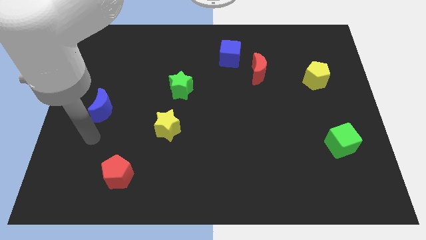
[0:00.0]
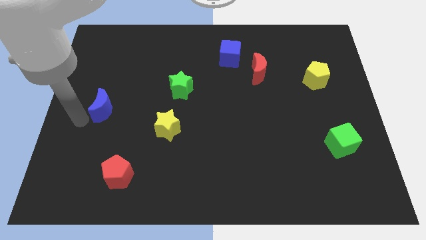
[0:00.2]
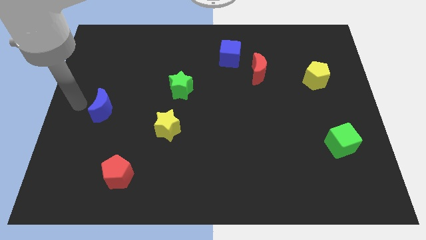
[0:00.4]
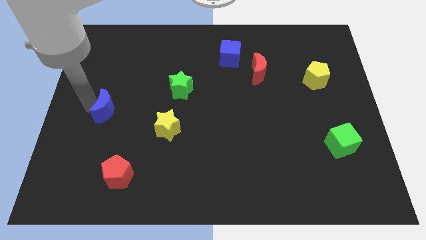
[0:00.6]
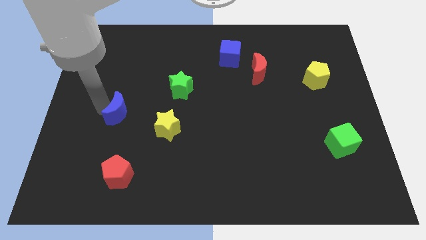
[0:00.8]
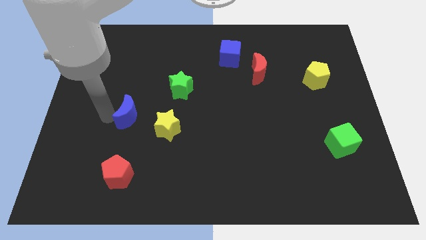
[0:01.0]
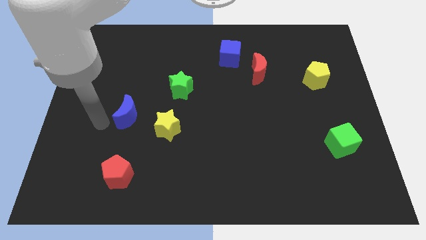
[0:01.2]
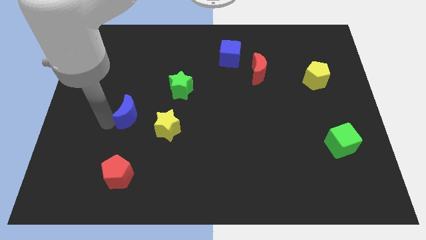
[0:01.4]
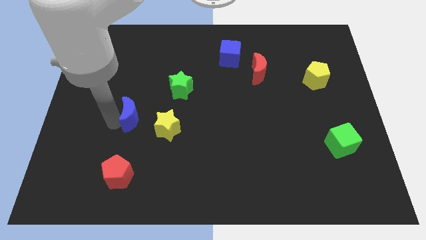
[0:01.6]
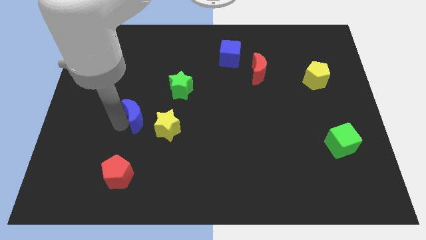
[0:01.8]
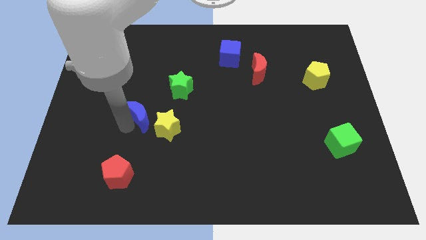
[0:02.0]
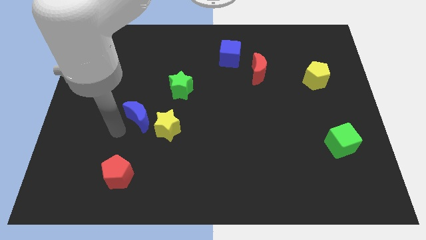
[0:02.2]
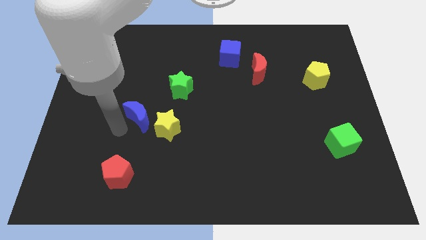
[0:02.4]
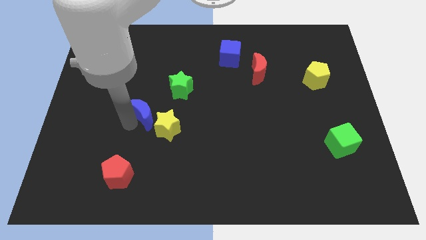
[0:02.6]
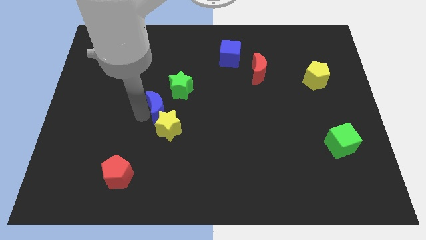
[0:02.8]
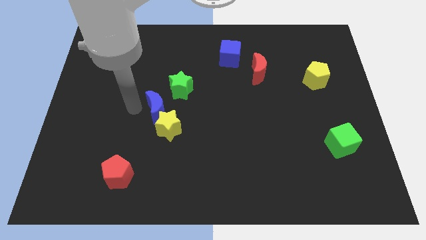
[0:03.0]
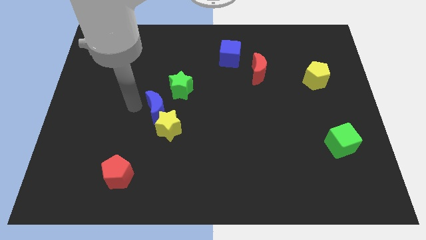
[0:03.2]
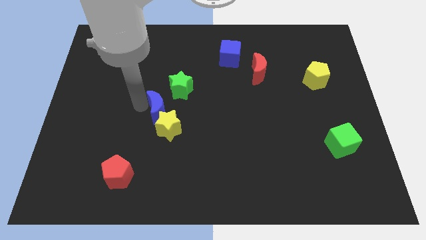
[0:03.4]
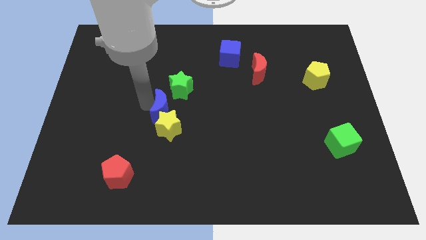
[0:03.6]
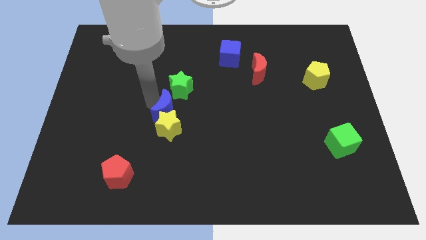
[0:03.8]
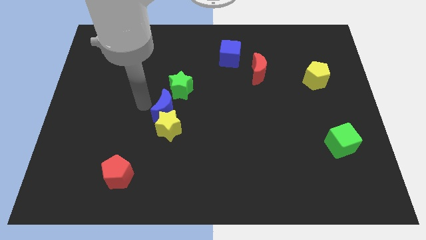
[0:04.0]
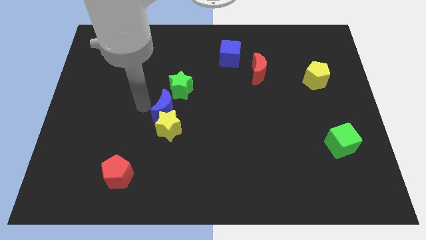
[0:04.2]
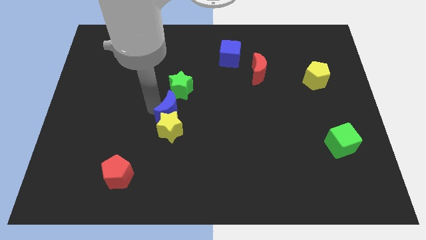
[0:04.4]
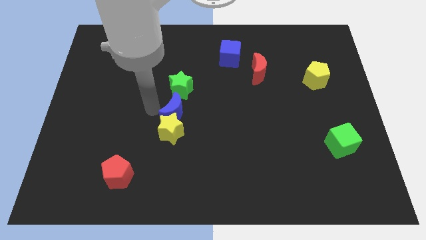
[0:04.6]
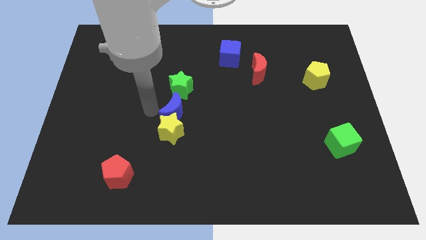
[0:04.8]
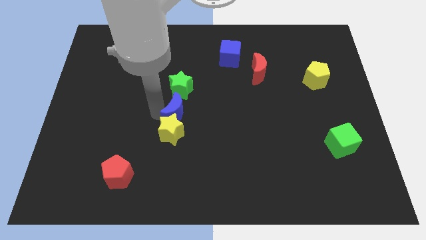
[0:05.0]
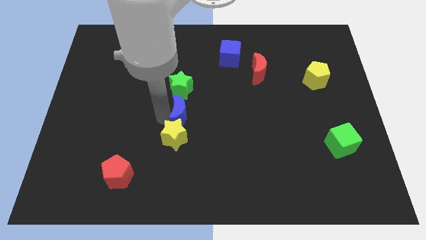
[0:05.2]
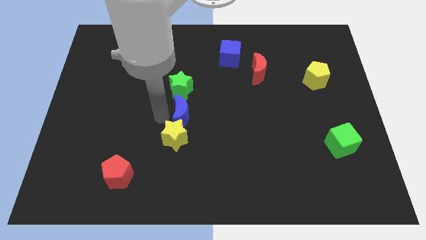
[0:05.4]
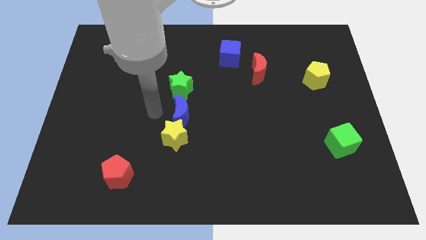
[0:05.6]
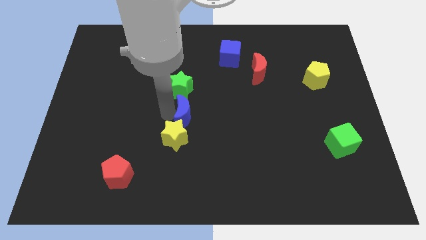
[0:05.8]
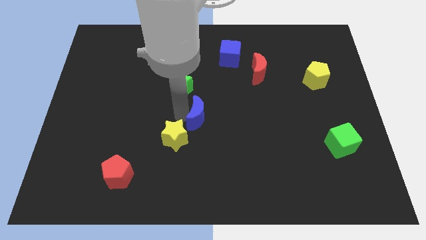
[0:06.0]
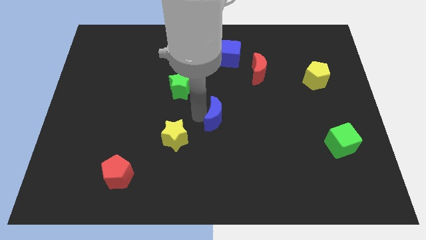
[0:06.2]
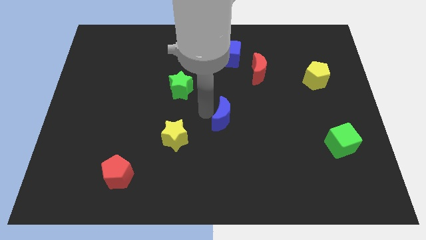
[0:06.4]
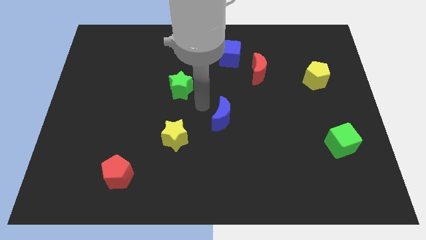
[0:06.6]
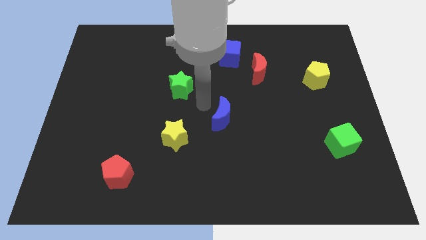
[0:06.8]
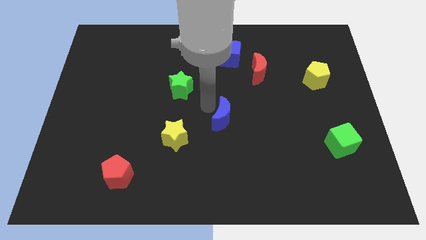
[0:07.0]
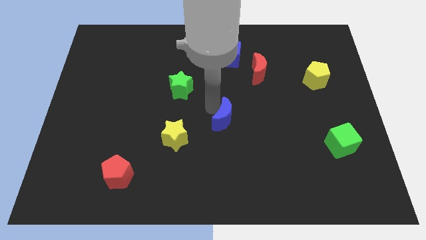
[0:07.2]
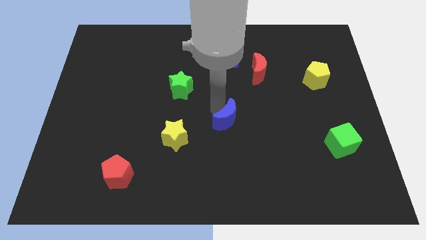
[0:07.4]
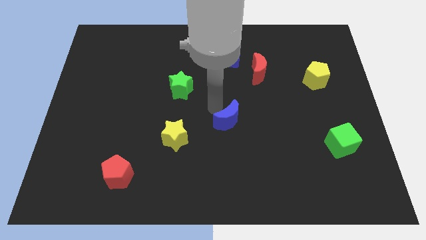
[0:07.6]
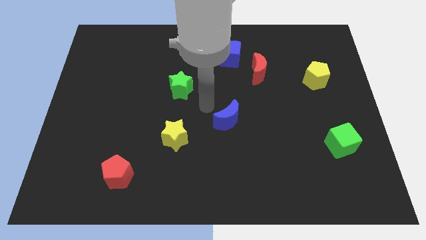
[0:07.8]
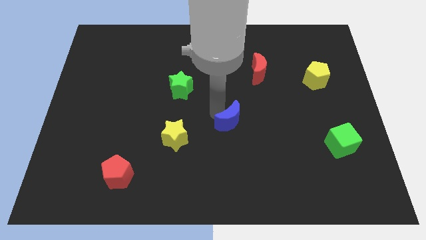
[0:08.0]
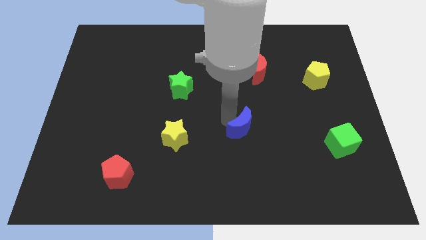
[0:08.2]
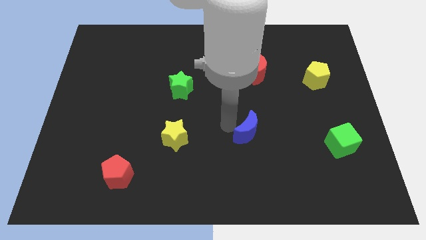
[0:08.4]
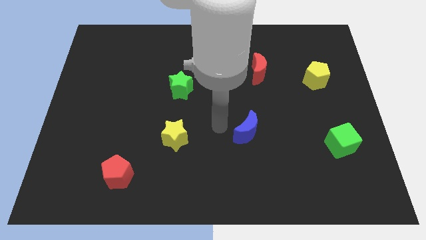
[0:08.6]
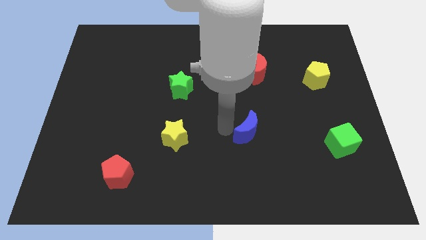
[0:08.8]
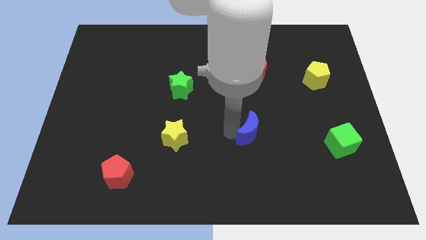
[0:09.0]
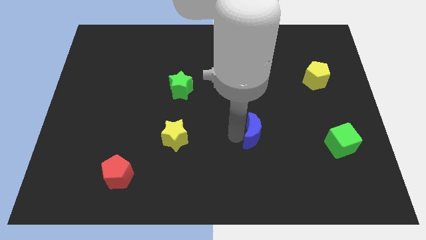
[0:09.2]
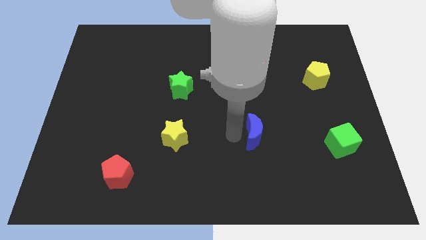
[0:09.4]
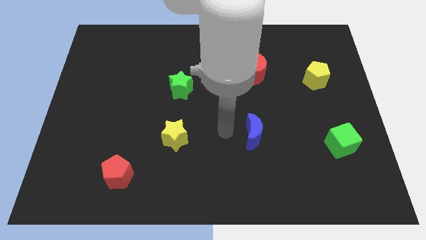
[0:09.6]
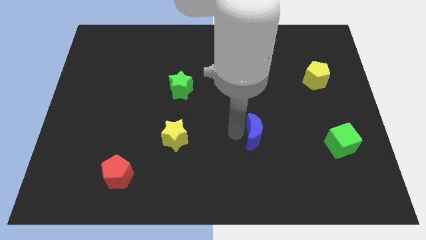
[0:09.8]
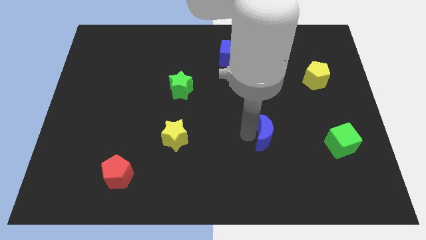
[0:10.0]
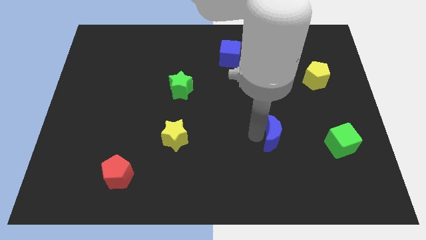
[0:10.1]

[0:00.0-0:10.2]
move the blue moon left of the green cube

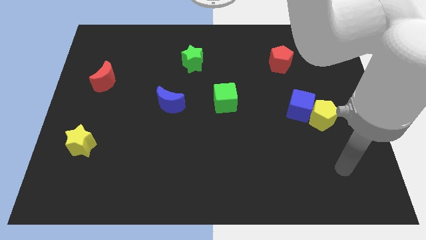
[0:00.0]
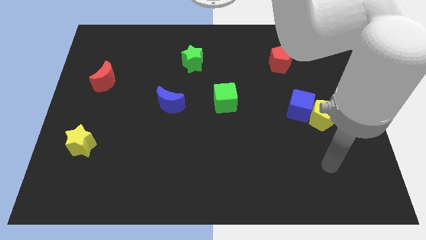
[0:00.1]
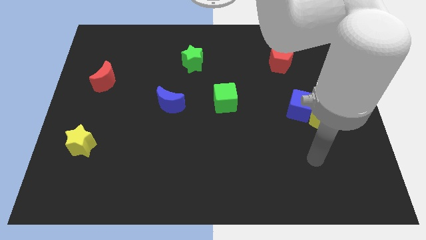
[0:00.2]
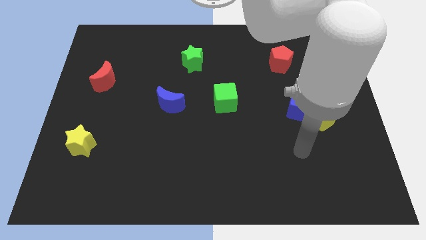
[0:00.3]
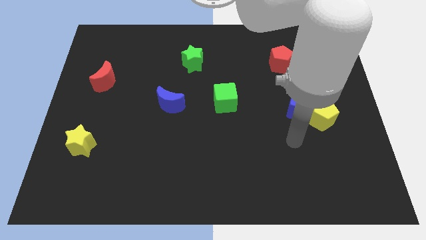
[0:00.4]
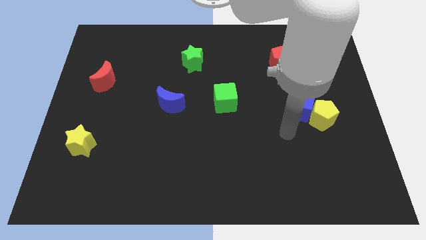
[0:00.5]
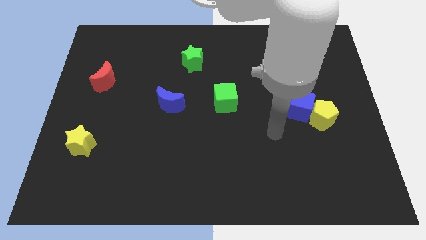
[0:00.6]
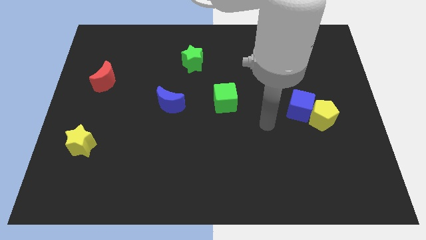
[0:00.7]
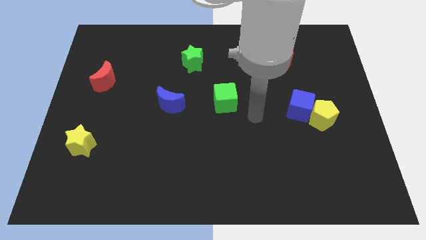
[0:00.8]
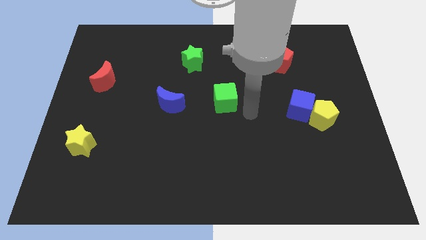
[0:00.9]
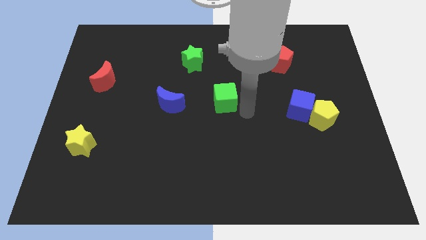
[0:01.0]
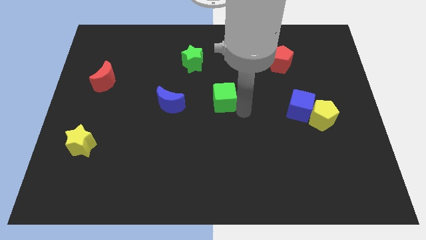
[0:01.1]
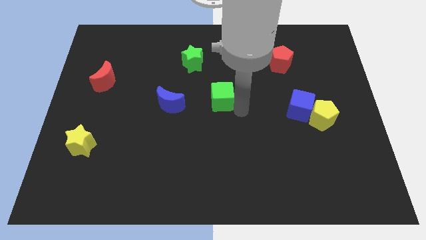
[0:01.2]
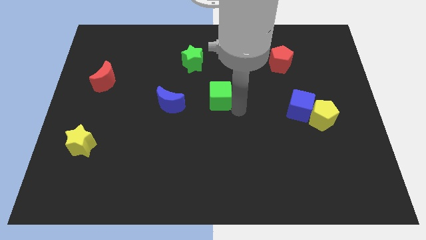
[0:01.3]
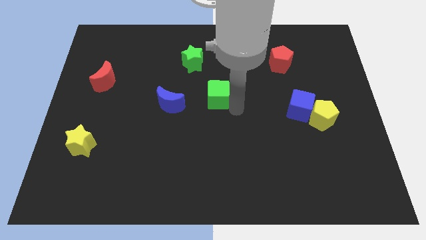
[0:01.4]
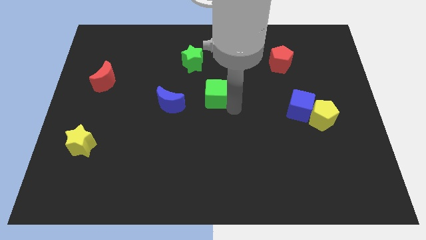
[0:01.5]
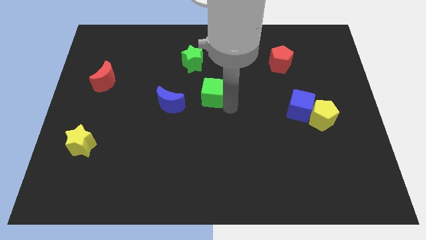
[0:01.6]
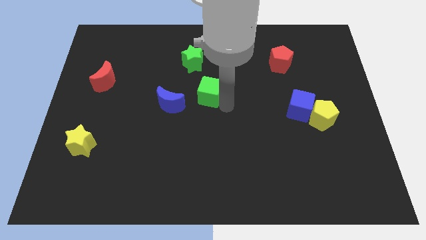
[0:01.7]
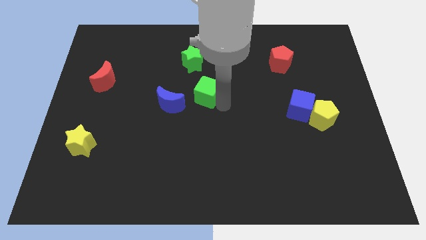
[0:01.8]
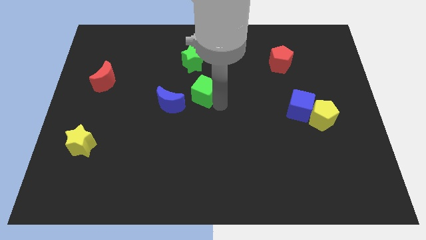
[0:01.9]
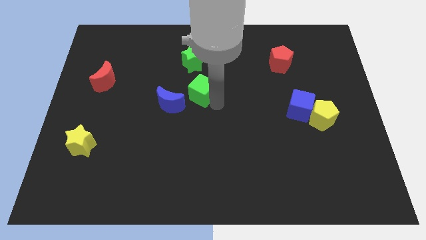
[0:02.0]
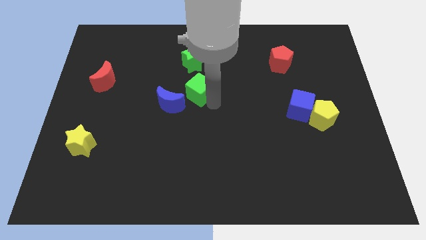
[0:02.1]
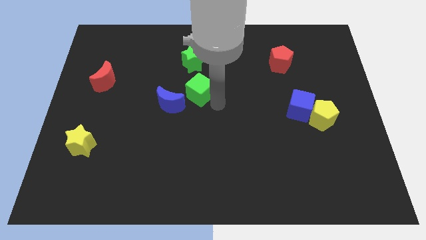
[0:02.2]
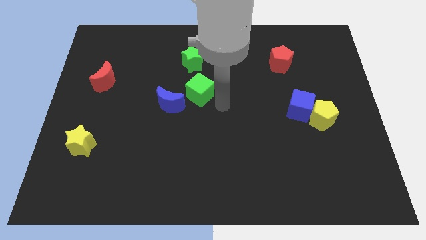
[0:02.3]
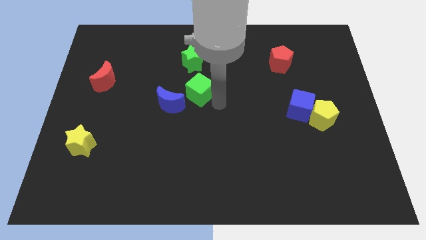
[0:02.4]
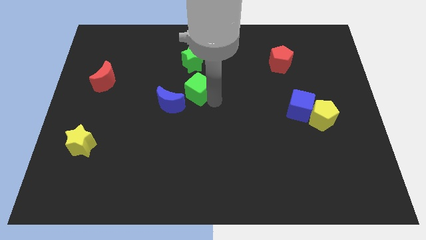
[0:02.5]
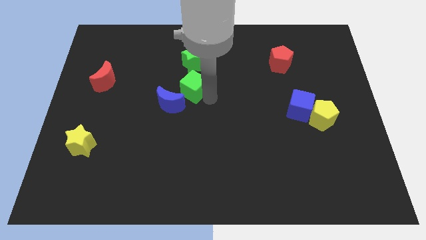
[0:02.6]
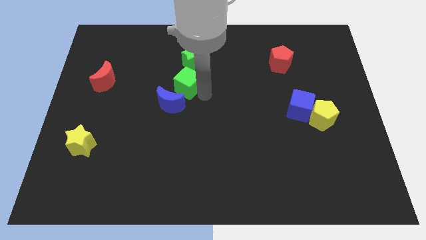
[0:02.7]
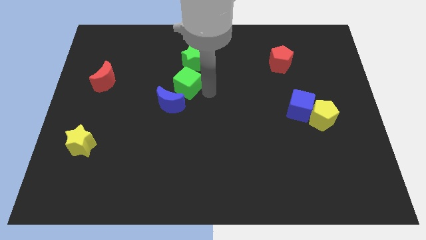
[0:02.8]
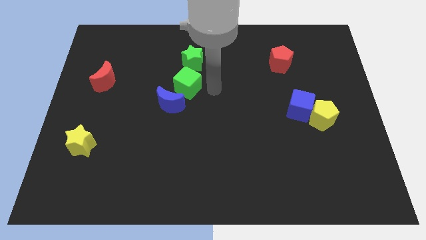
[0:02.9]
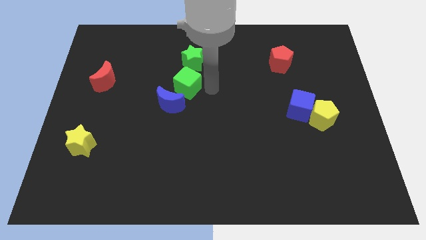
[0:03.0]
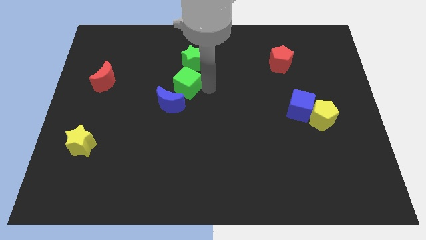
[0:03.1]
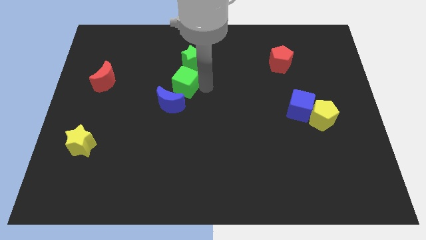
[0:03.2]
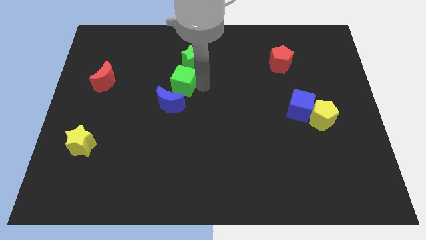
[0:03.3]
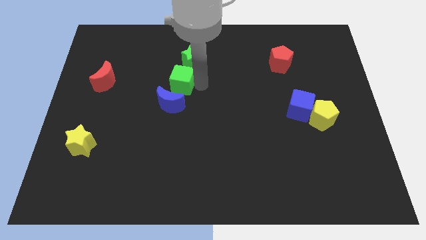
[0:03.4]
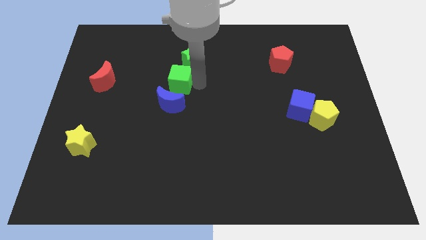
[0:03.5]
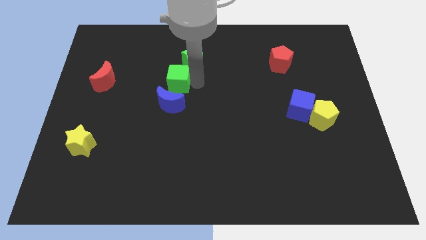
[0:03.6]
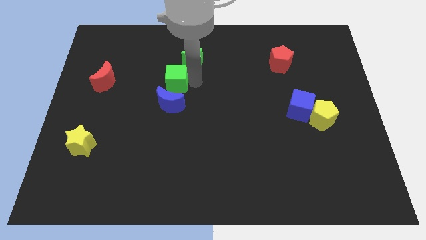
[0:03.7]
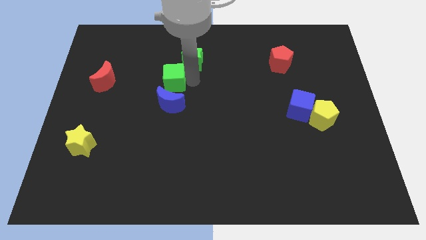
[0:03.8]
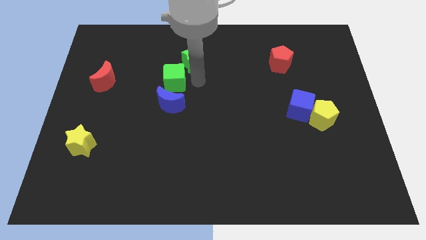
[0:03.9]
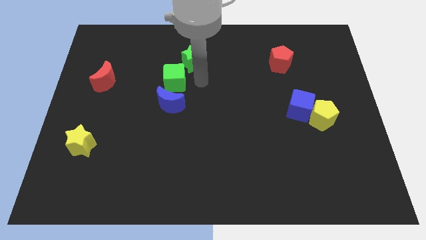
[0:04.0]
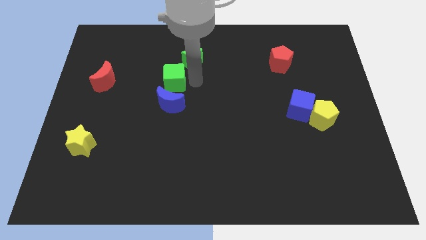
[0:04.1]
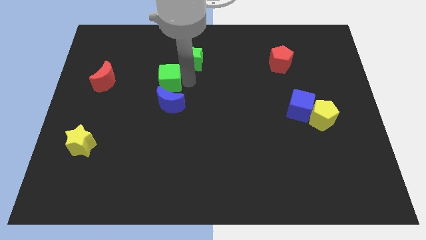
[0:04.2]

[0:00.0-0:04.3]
push the green cube to the right of the red moon
